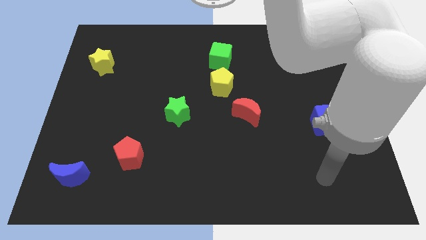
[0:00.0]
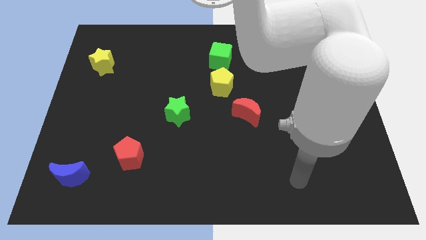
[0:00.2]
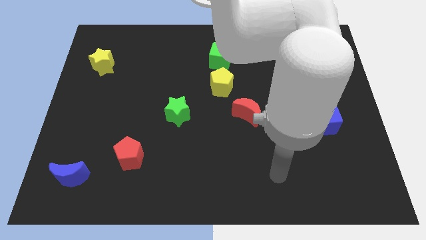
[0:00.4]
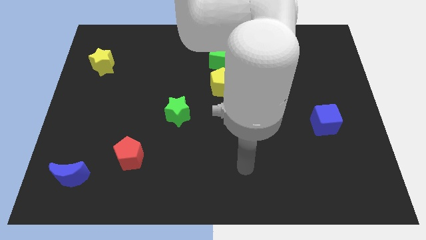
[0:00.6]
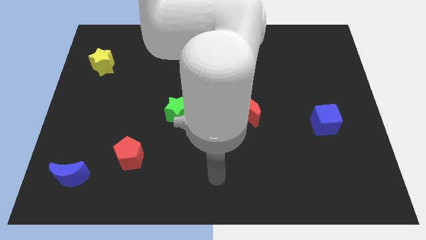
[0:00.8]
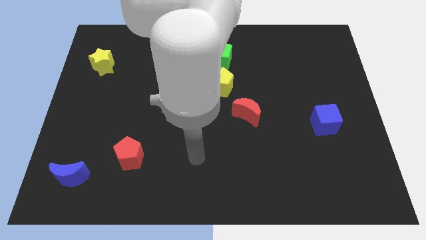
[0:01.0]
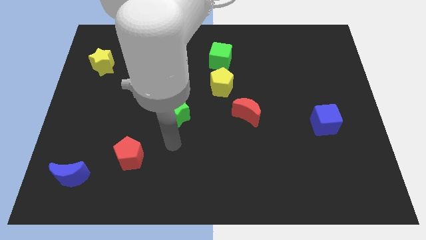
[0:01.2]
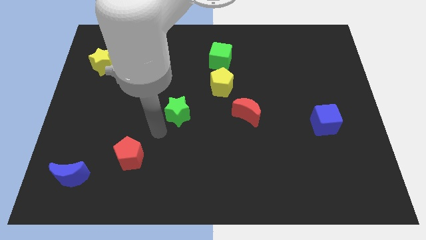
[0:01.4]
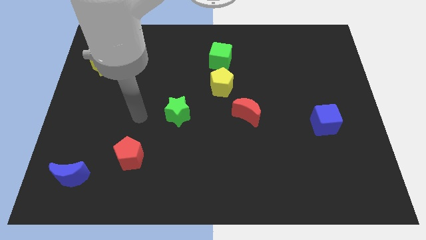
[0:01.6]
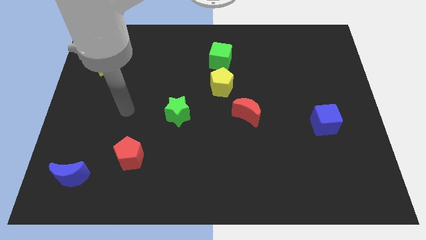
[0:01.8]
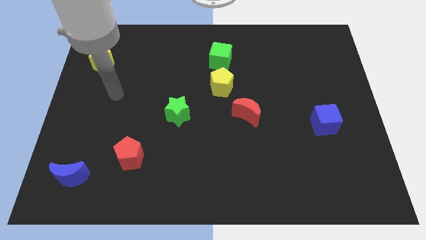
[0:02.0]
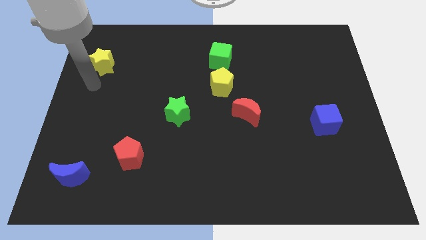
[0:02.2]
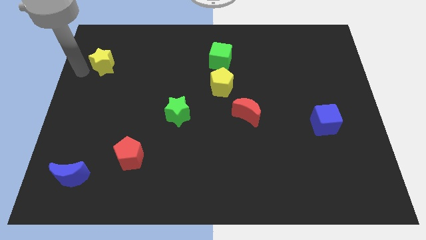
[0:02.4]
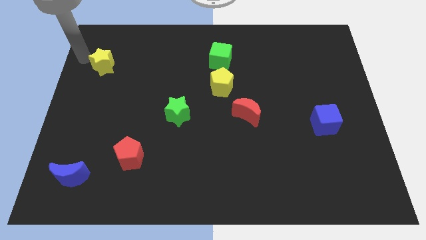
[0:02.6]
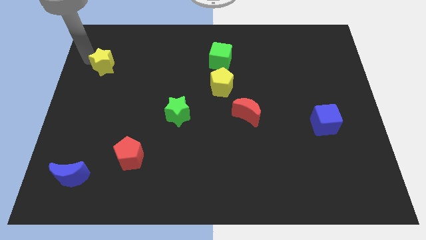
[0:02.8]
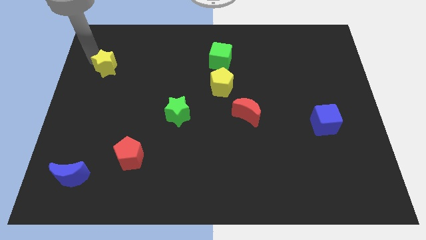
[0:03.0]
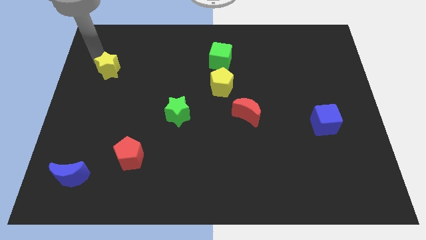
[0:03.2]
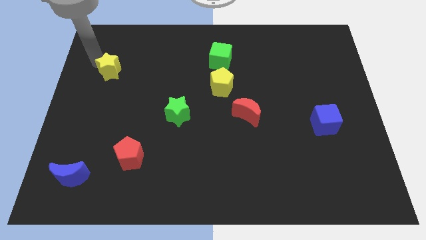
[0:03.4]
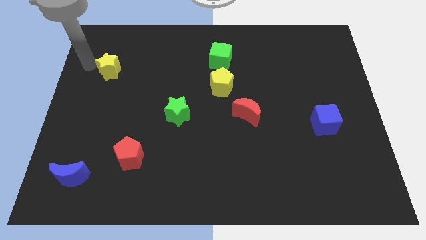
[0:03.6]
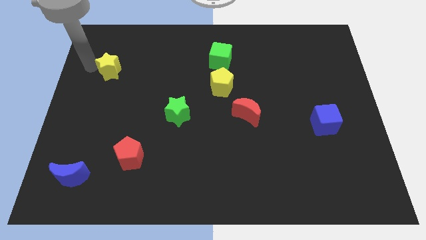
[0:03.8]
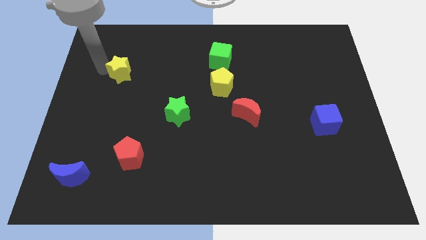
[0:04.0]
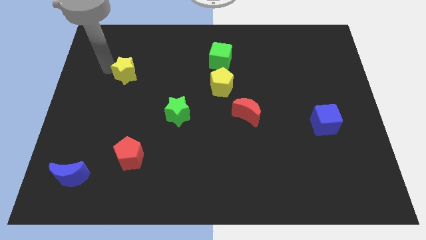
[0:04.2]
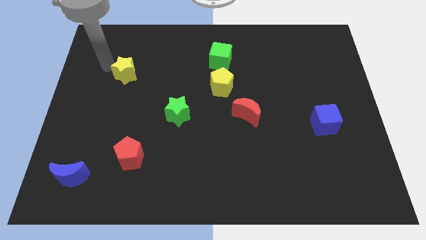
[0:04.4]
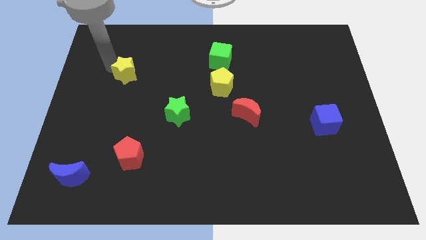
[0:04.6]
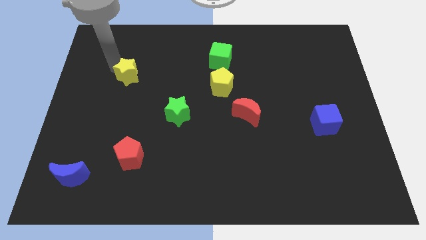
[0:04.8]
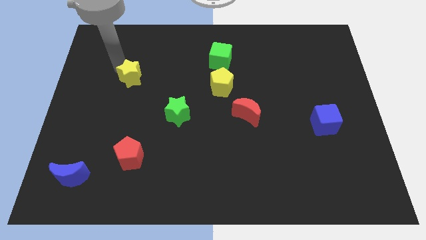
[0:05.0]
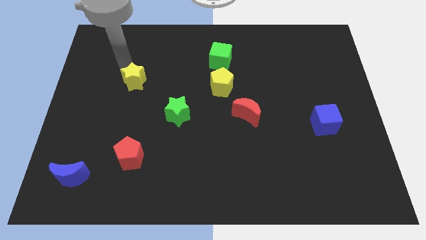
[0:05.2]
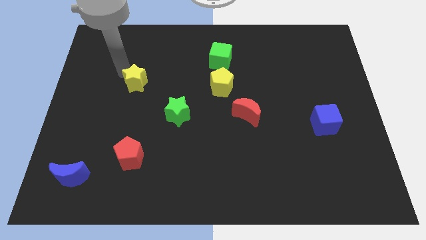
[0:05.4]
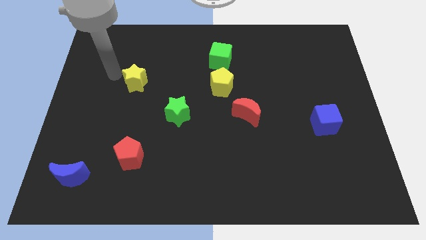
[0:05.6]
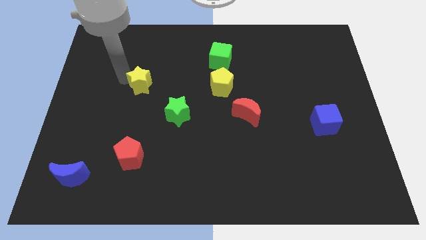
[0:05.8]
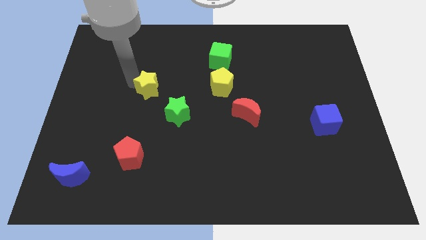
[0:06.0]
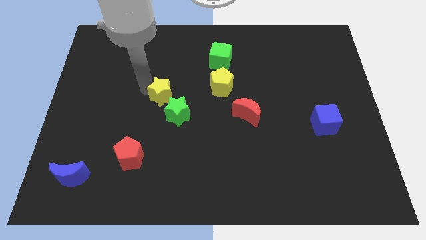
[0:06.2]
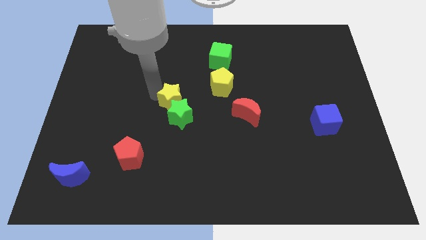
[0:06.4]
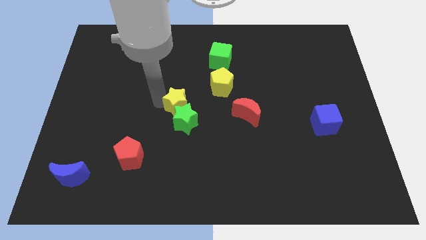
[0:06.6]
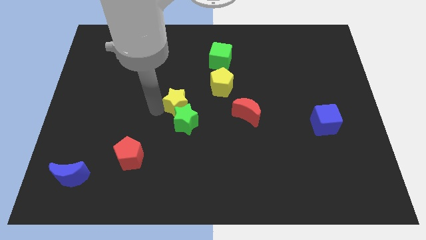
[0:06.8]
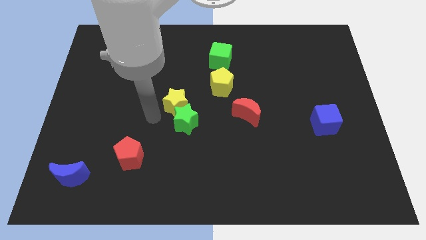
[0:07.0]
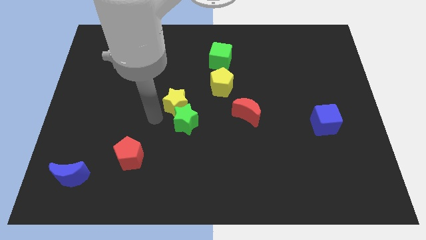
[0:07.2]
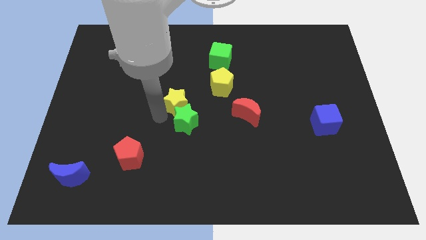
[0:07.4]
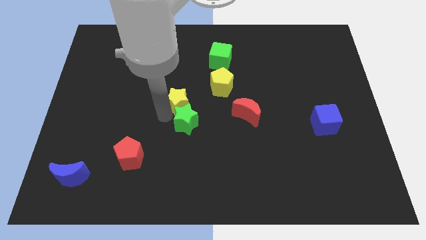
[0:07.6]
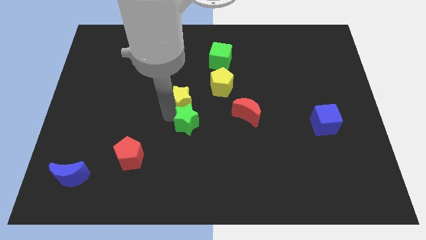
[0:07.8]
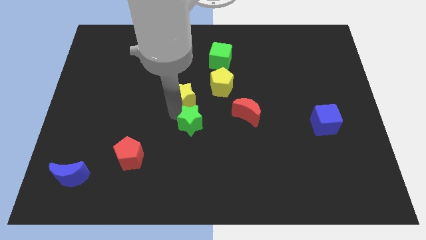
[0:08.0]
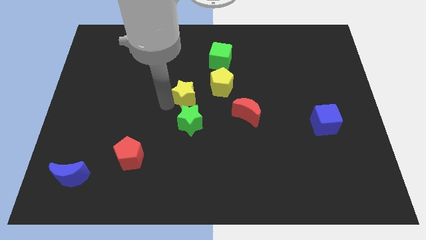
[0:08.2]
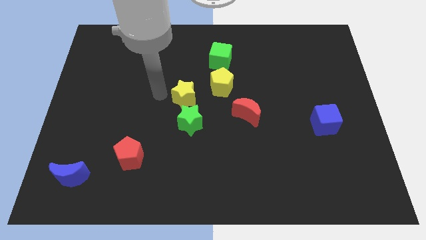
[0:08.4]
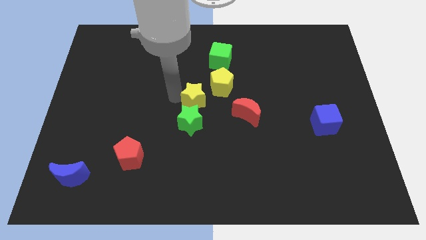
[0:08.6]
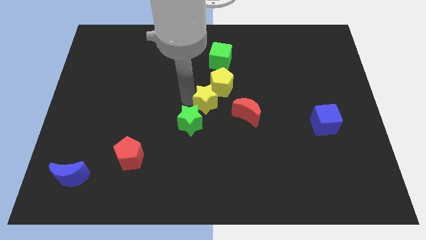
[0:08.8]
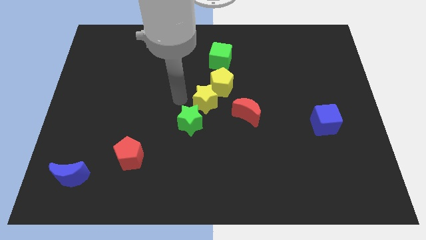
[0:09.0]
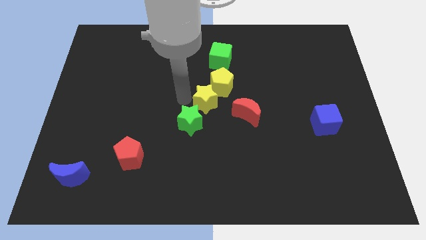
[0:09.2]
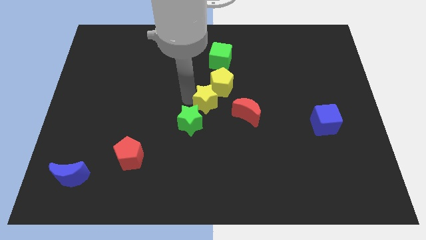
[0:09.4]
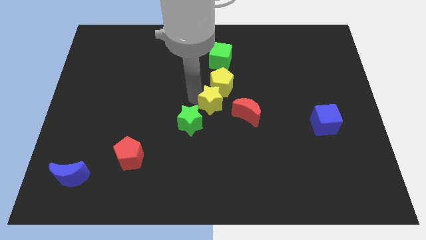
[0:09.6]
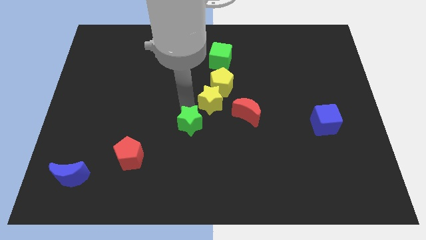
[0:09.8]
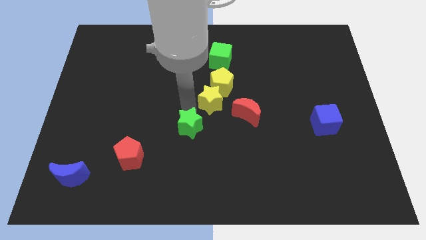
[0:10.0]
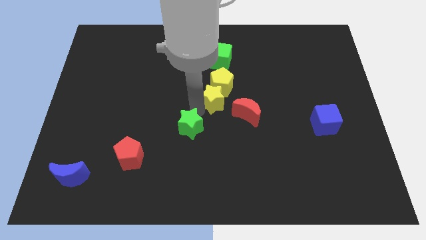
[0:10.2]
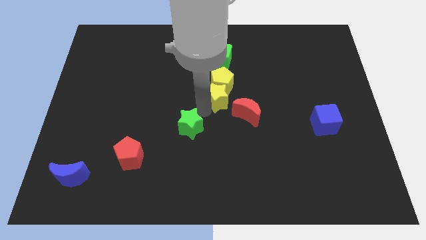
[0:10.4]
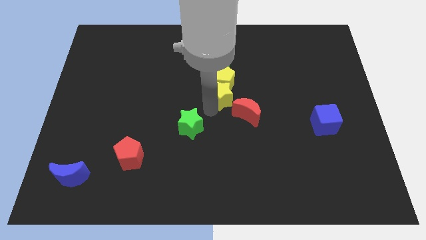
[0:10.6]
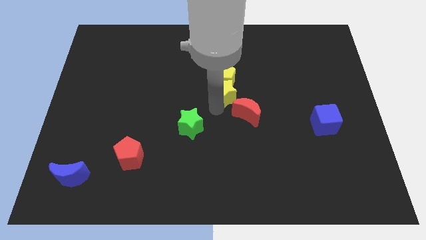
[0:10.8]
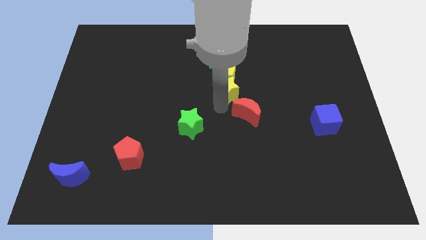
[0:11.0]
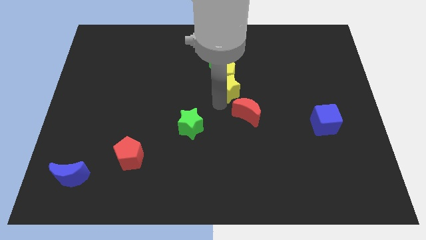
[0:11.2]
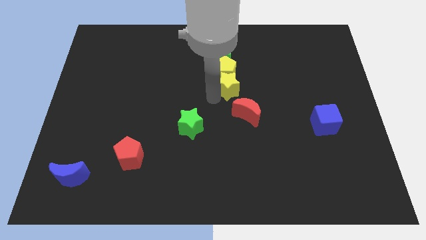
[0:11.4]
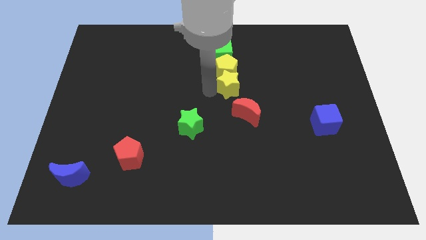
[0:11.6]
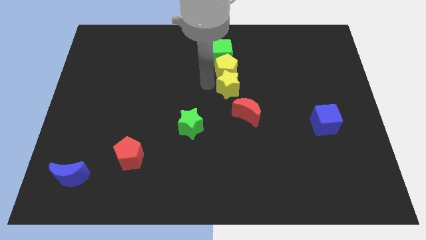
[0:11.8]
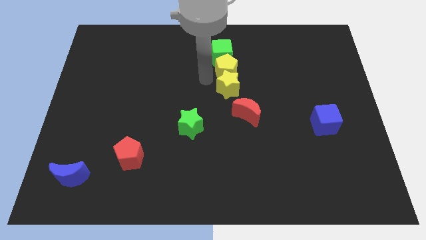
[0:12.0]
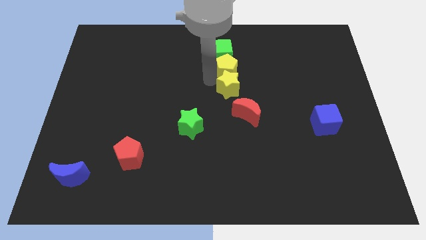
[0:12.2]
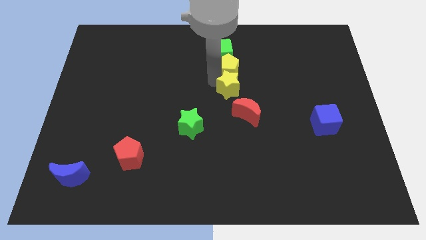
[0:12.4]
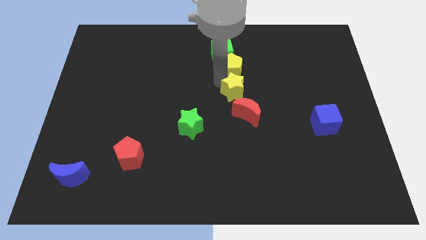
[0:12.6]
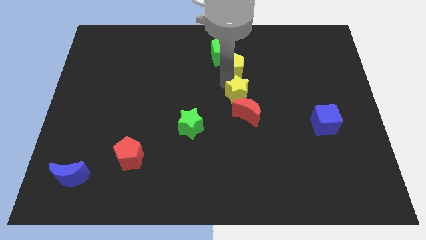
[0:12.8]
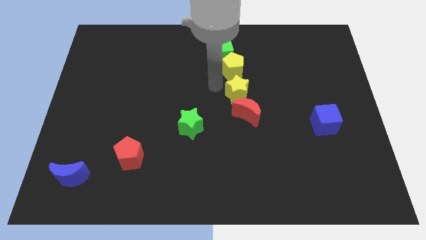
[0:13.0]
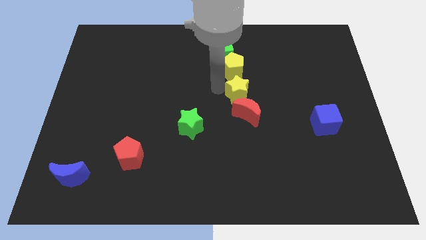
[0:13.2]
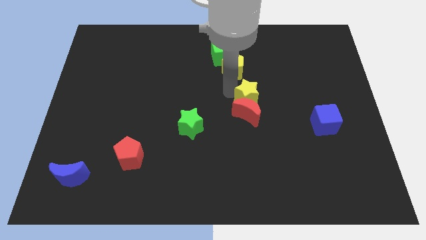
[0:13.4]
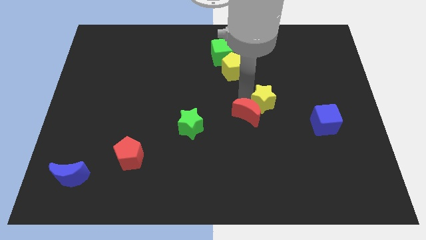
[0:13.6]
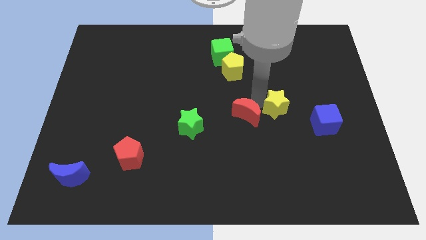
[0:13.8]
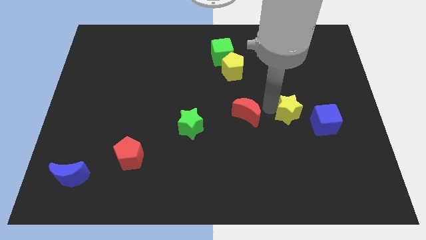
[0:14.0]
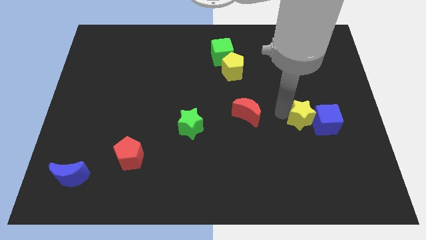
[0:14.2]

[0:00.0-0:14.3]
slide the yellow star close to the blue cube

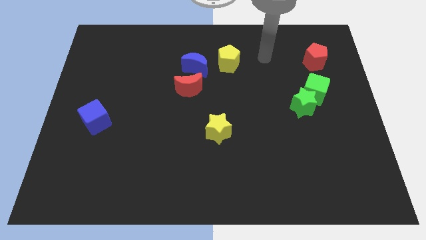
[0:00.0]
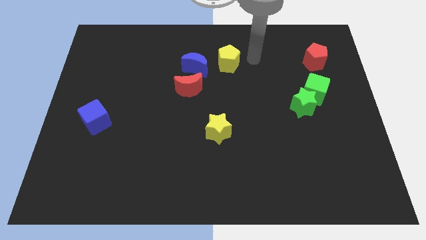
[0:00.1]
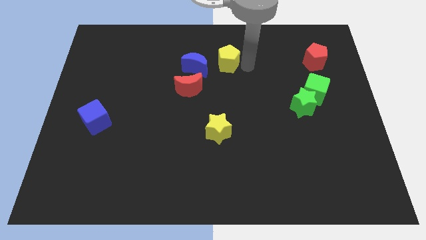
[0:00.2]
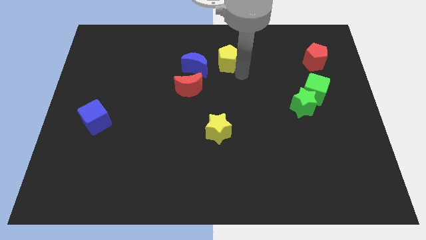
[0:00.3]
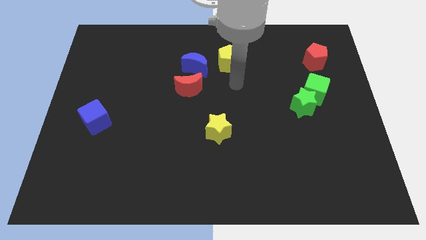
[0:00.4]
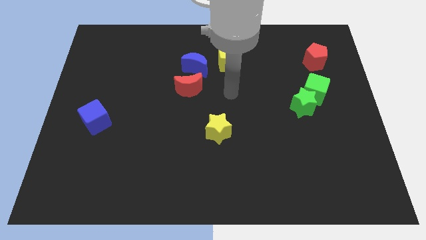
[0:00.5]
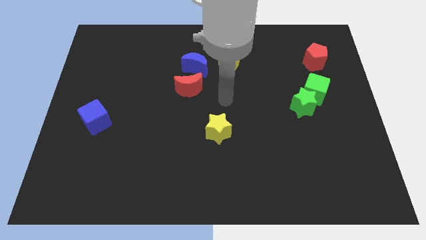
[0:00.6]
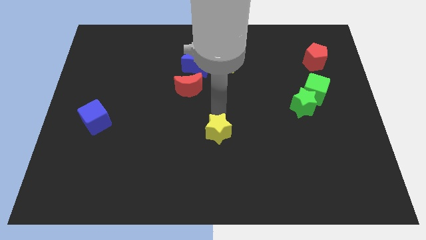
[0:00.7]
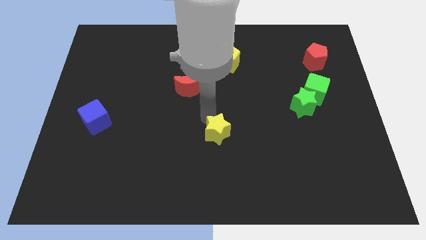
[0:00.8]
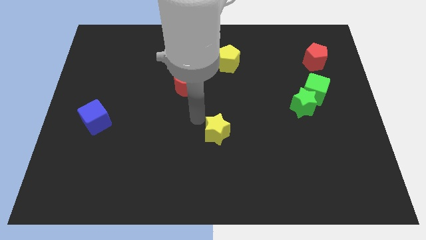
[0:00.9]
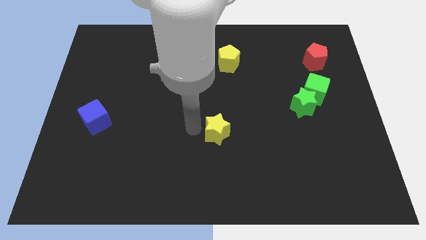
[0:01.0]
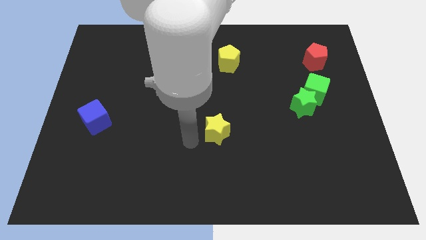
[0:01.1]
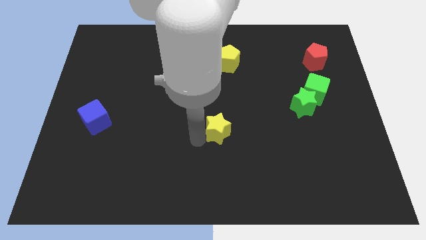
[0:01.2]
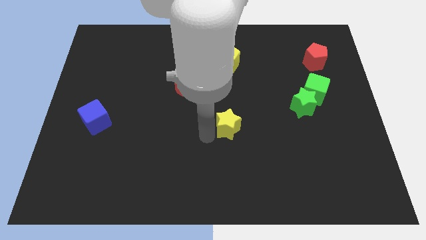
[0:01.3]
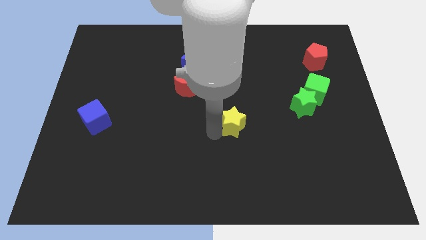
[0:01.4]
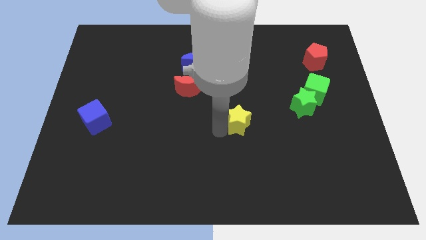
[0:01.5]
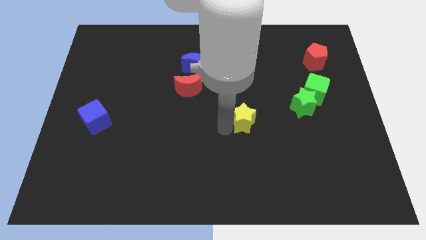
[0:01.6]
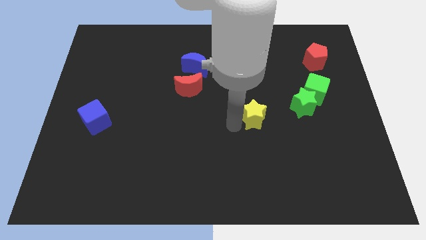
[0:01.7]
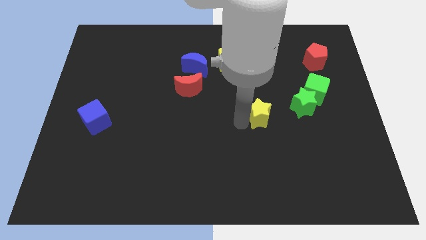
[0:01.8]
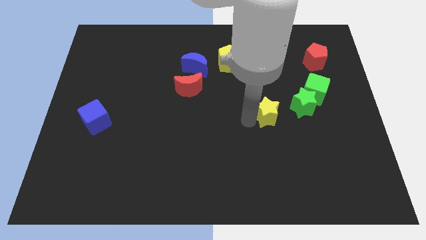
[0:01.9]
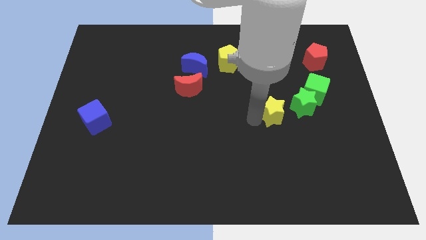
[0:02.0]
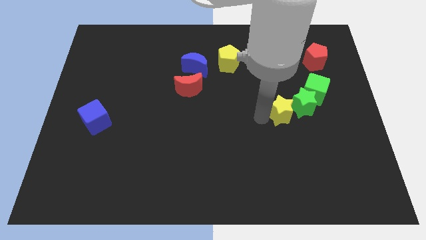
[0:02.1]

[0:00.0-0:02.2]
move the yellow star close to the green star
